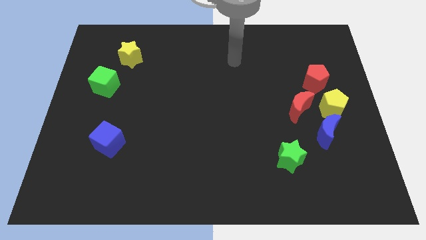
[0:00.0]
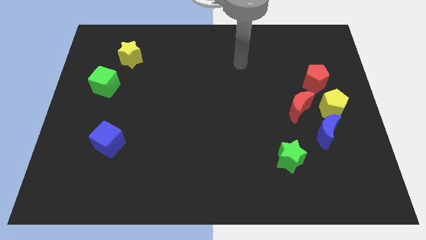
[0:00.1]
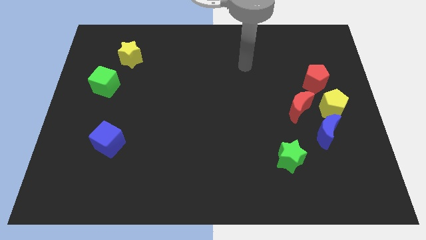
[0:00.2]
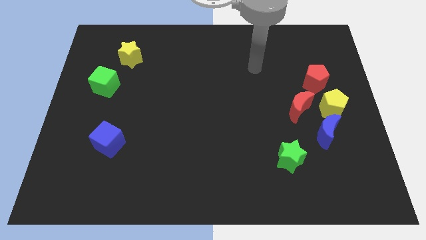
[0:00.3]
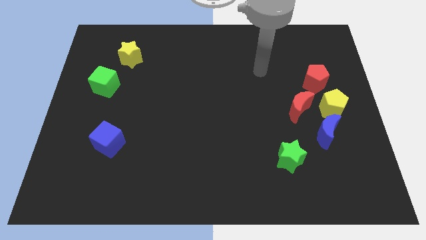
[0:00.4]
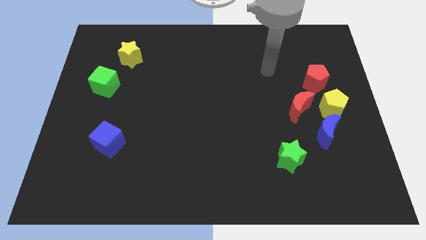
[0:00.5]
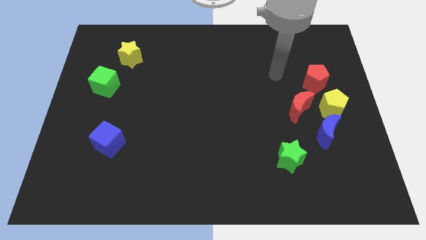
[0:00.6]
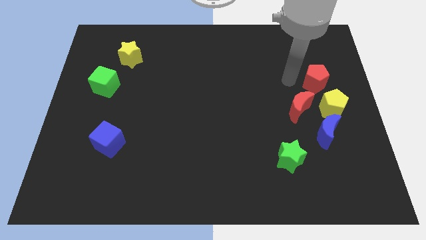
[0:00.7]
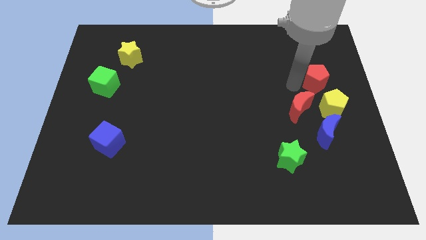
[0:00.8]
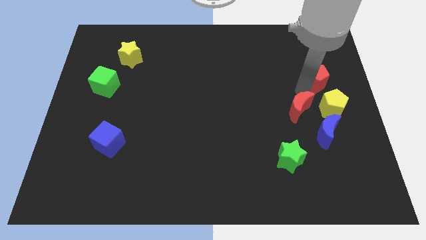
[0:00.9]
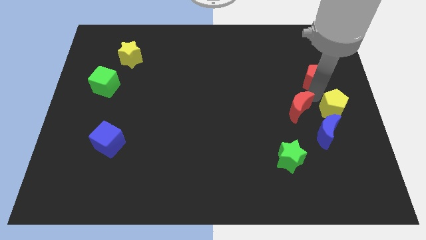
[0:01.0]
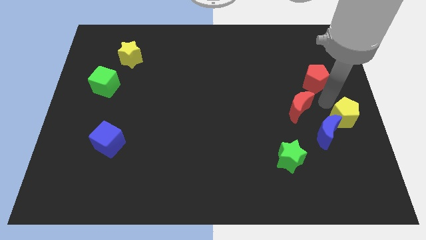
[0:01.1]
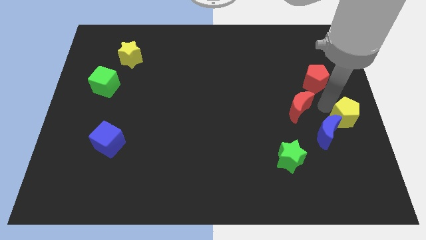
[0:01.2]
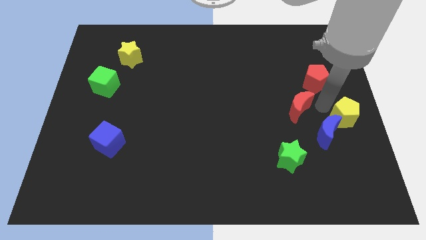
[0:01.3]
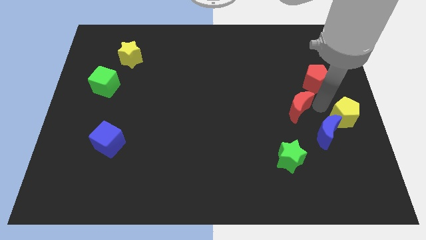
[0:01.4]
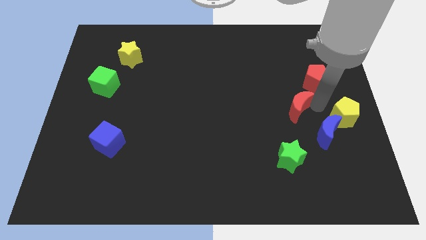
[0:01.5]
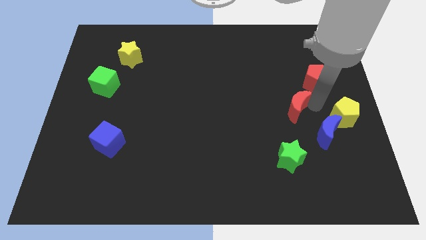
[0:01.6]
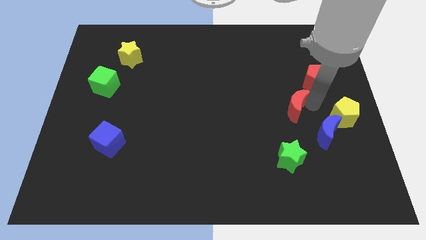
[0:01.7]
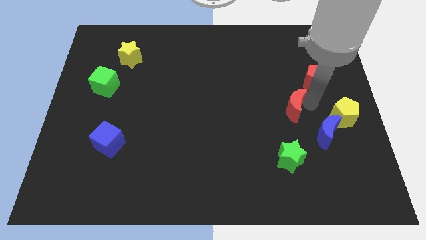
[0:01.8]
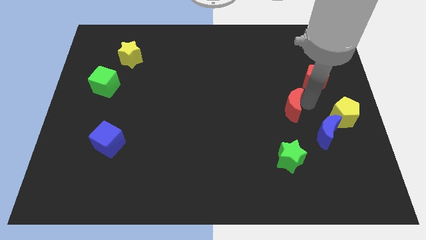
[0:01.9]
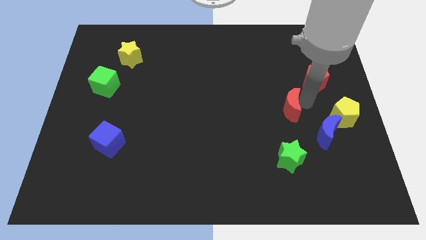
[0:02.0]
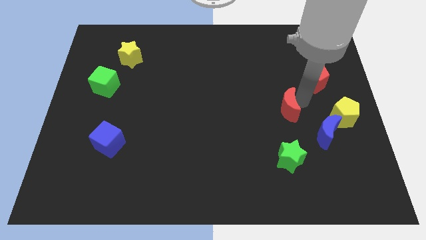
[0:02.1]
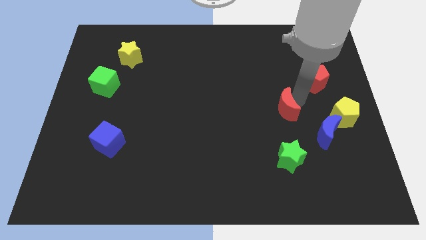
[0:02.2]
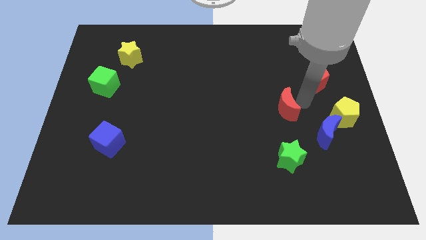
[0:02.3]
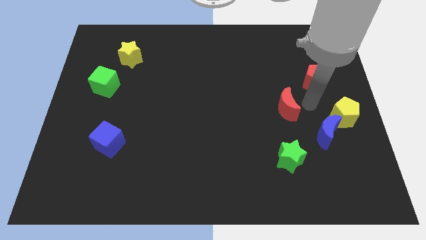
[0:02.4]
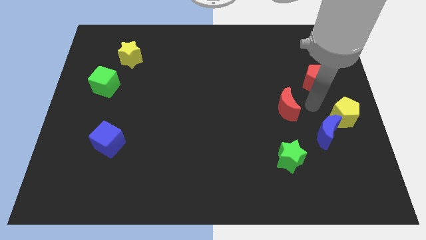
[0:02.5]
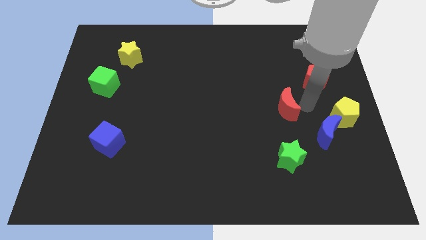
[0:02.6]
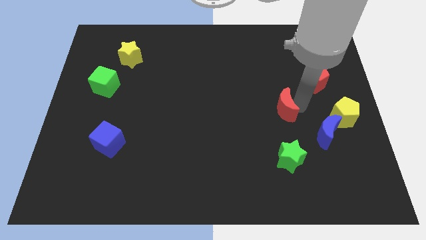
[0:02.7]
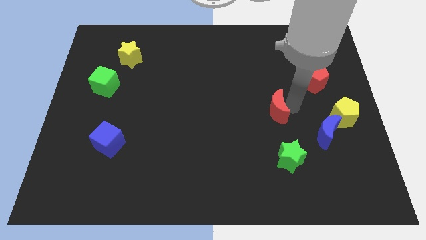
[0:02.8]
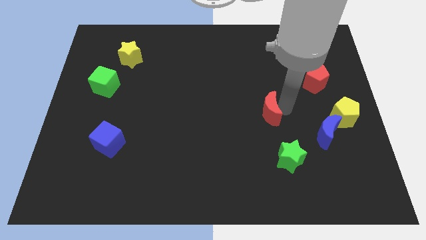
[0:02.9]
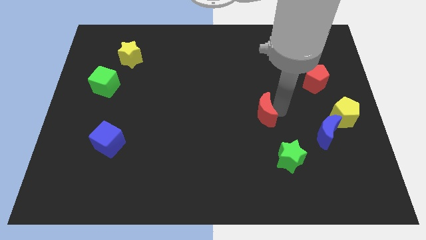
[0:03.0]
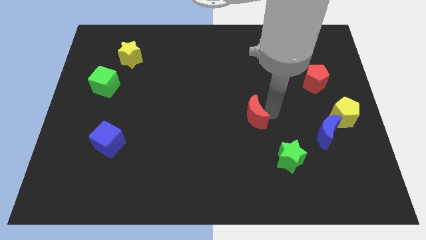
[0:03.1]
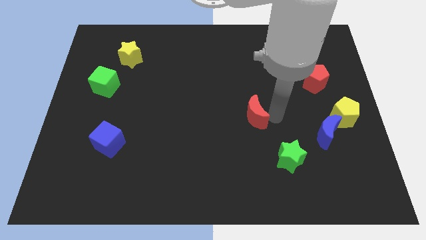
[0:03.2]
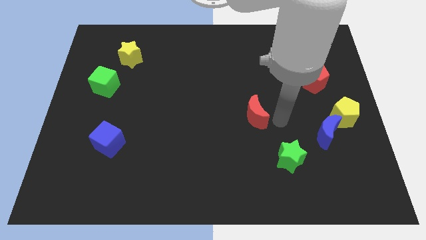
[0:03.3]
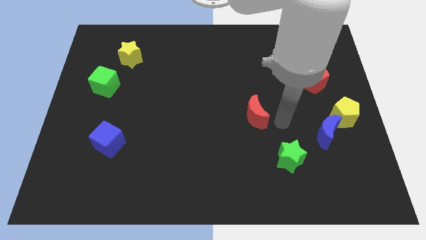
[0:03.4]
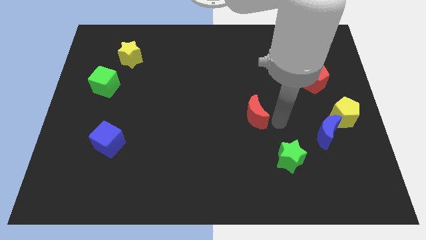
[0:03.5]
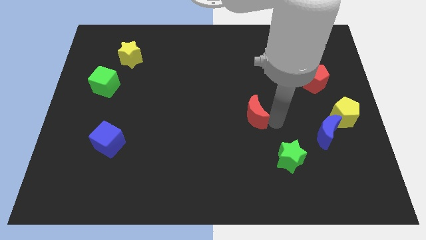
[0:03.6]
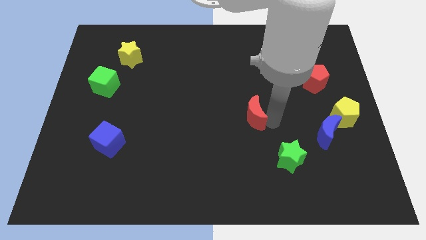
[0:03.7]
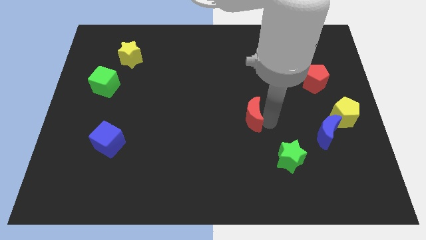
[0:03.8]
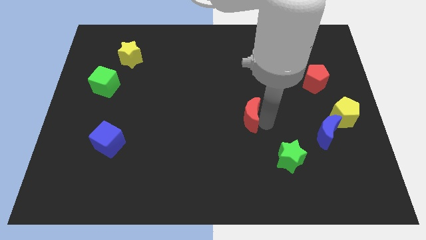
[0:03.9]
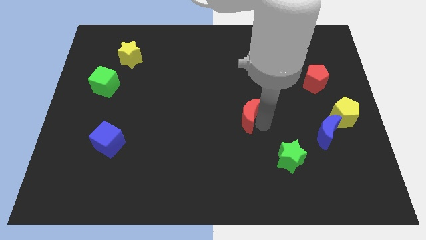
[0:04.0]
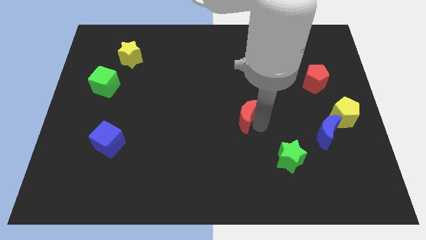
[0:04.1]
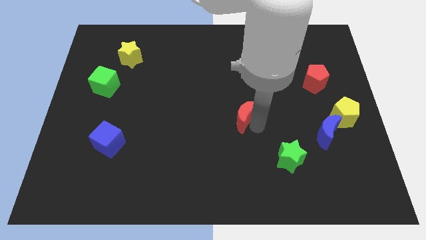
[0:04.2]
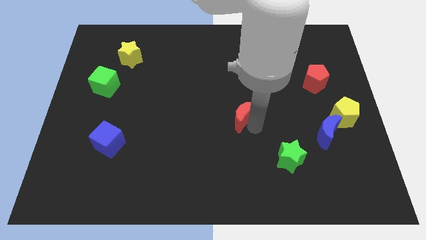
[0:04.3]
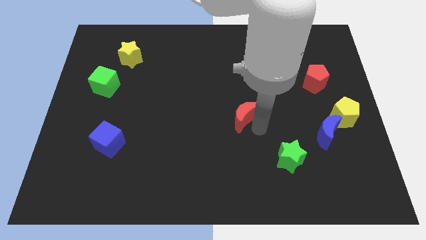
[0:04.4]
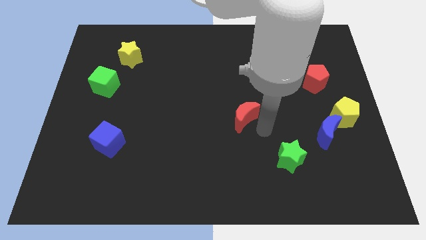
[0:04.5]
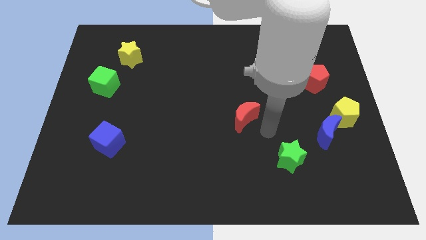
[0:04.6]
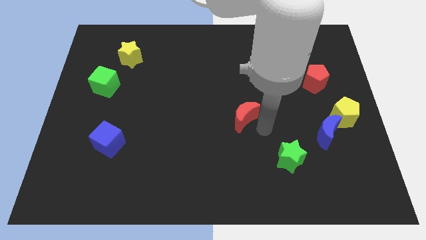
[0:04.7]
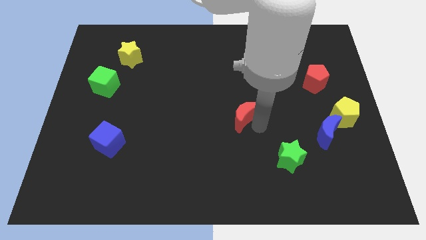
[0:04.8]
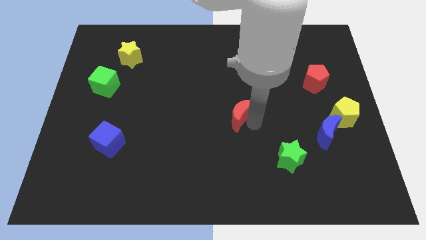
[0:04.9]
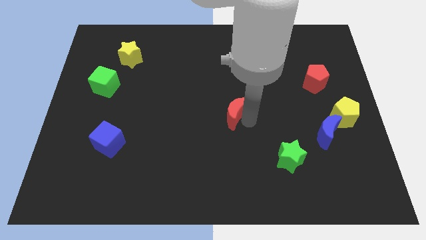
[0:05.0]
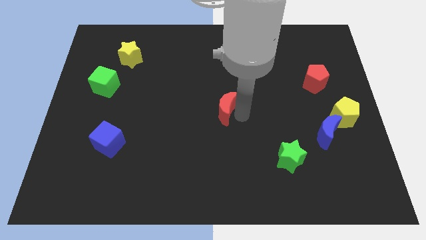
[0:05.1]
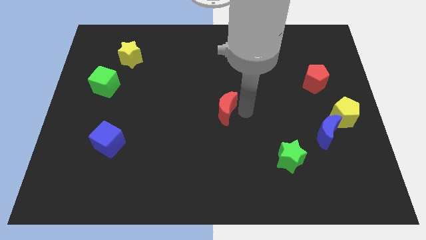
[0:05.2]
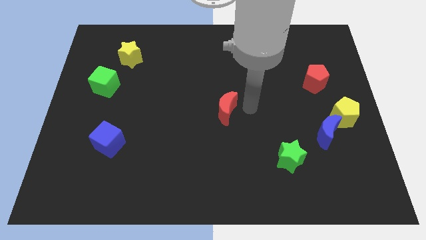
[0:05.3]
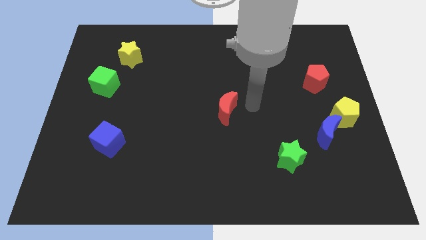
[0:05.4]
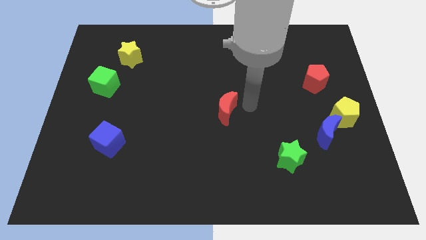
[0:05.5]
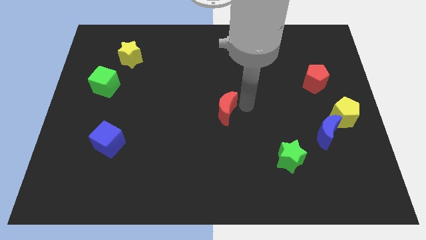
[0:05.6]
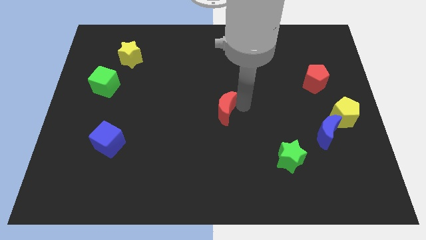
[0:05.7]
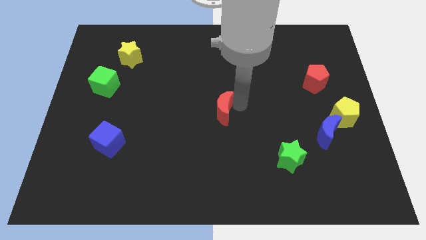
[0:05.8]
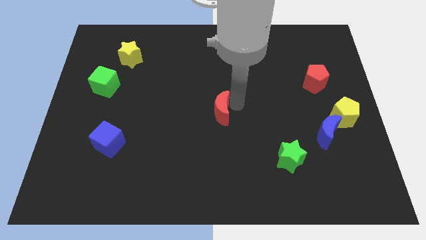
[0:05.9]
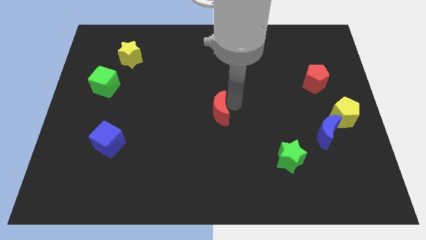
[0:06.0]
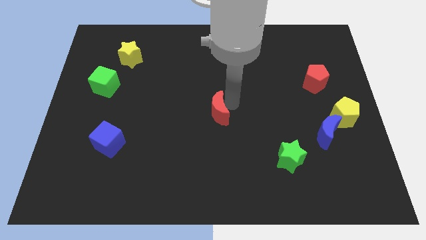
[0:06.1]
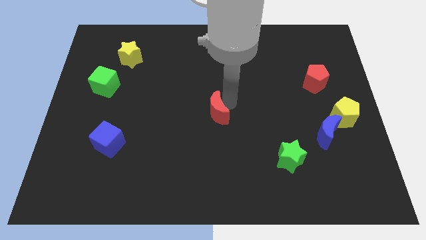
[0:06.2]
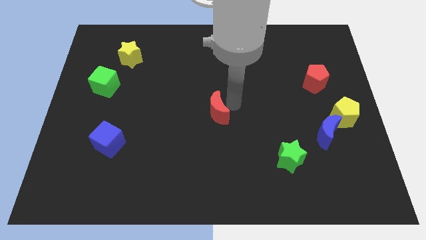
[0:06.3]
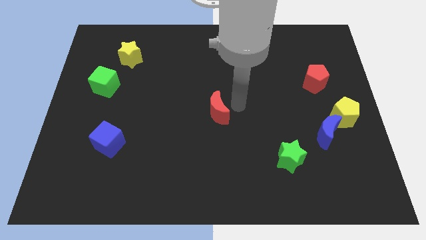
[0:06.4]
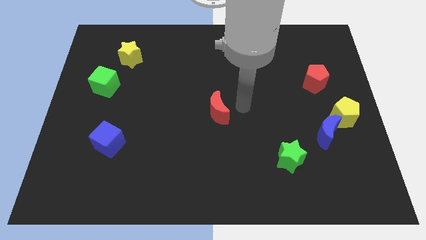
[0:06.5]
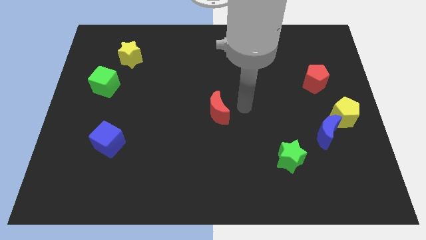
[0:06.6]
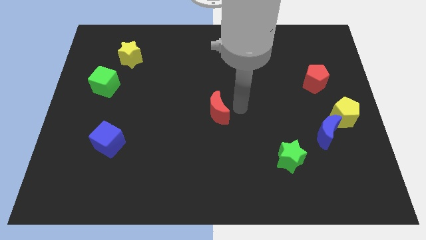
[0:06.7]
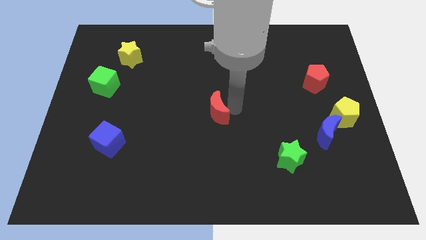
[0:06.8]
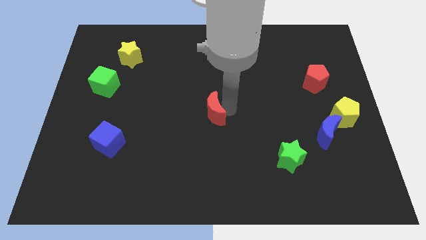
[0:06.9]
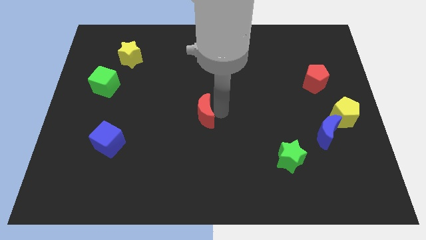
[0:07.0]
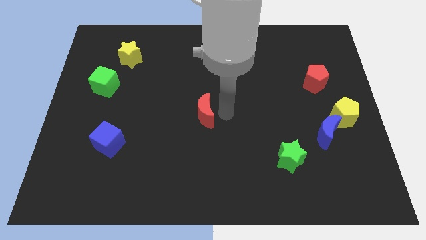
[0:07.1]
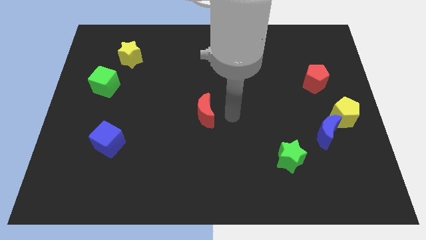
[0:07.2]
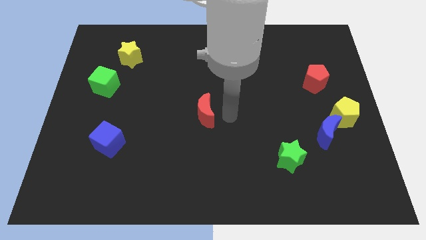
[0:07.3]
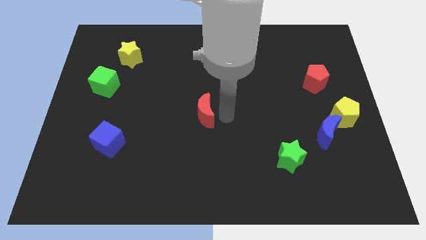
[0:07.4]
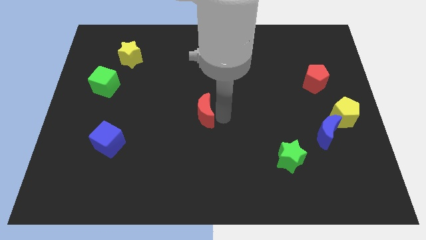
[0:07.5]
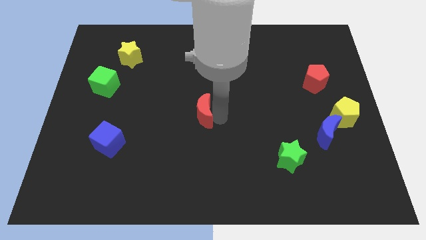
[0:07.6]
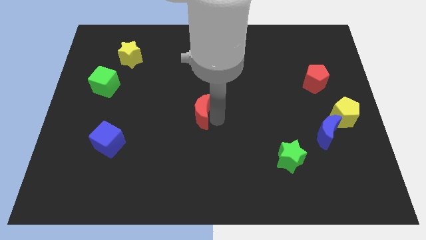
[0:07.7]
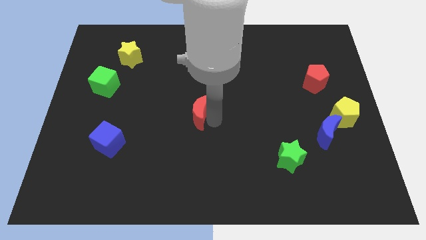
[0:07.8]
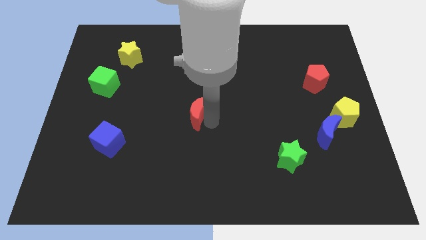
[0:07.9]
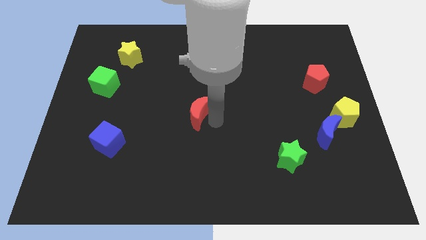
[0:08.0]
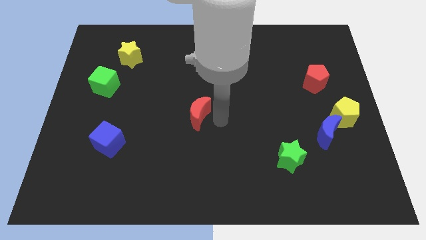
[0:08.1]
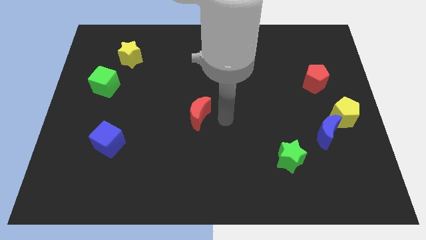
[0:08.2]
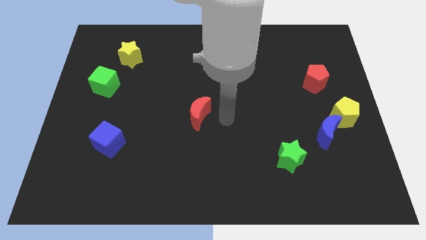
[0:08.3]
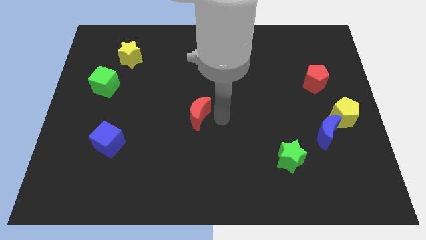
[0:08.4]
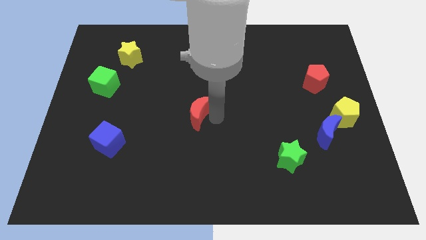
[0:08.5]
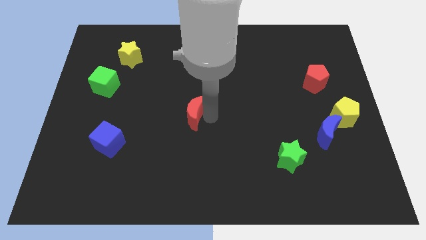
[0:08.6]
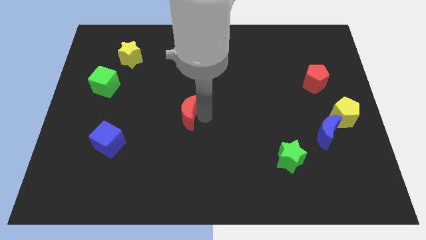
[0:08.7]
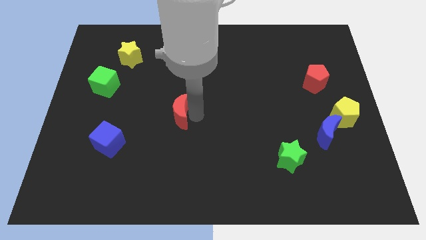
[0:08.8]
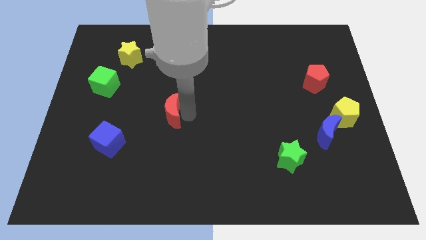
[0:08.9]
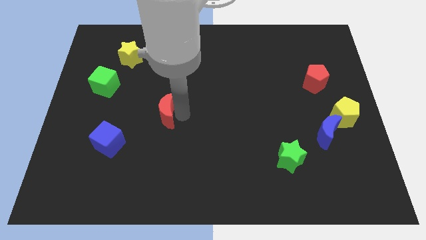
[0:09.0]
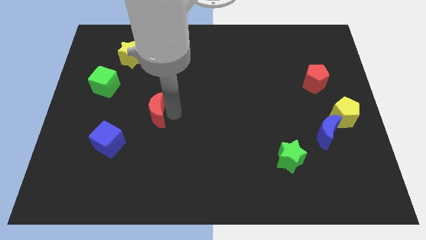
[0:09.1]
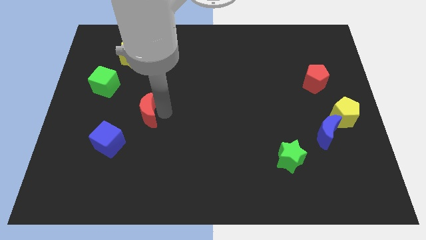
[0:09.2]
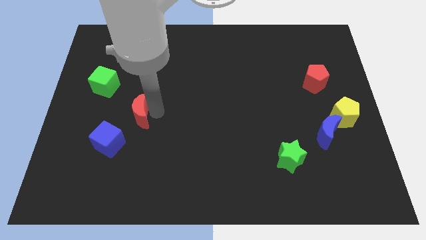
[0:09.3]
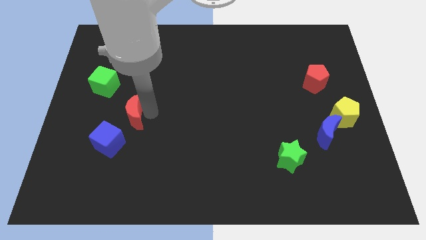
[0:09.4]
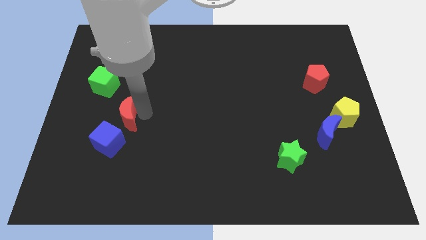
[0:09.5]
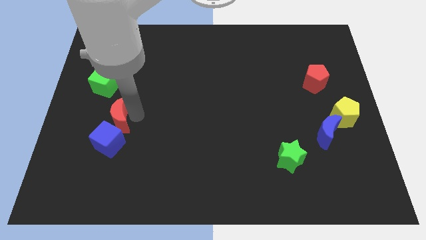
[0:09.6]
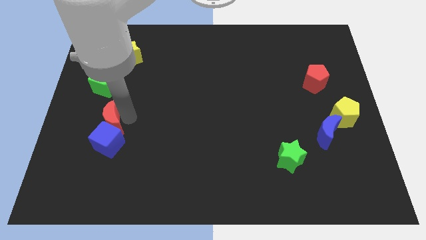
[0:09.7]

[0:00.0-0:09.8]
put the red moon diagonally up and to the left of the blue cube
